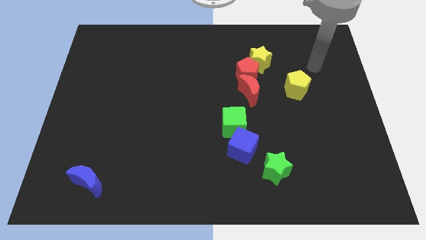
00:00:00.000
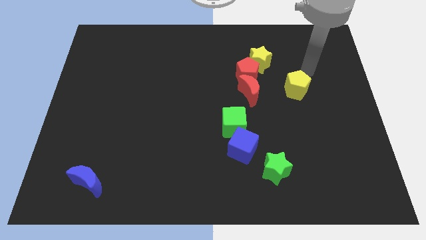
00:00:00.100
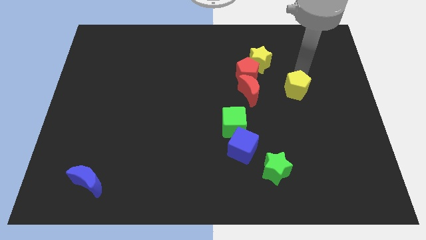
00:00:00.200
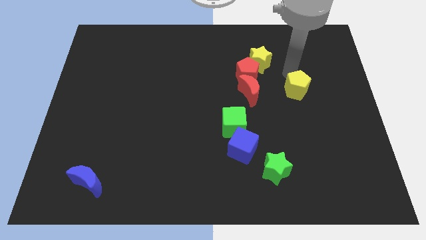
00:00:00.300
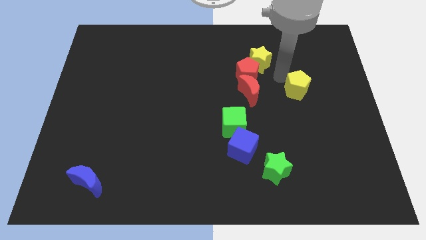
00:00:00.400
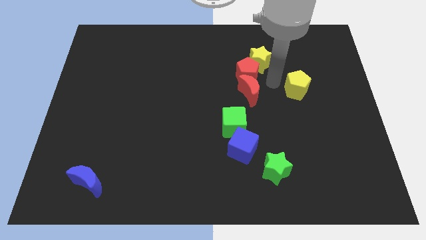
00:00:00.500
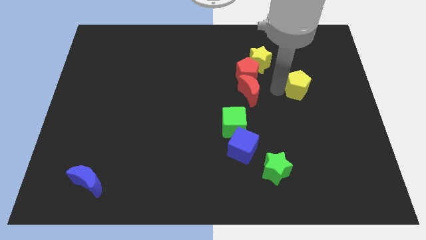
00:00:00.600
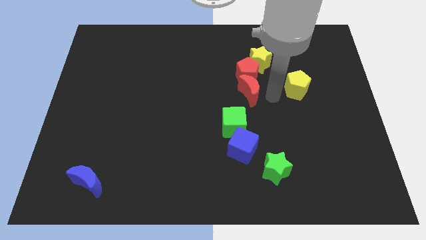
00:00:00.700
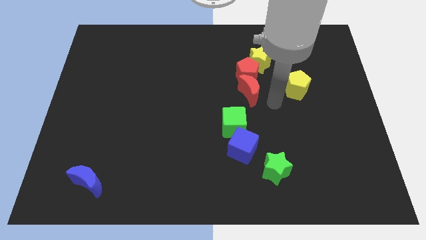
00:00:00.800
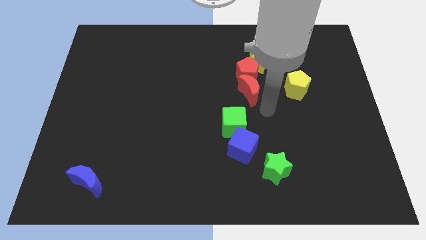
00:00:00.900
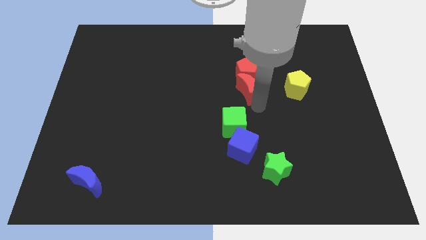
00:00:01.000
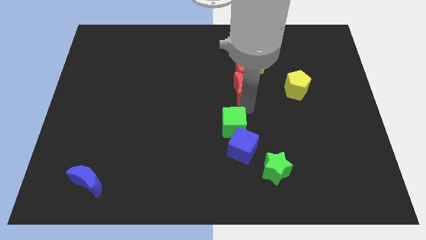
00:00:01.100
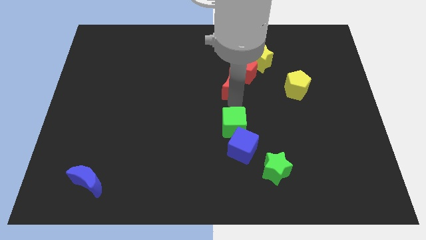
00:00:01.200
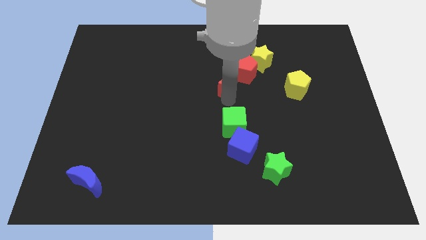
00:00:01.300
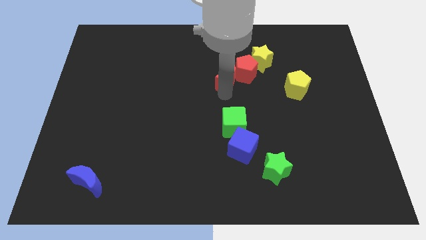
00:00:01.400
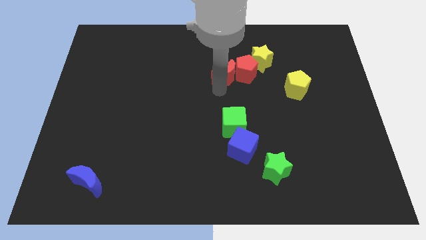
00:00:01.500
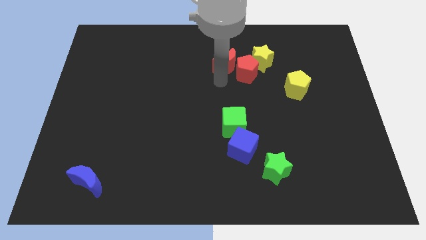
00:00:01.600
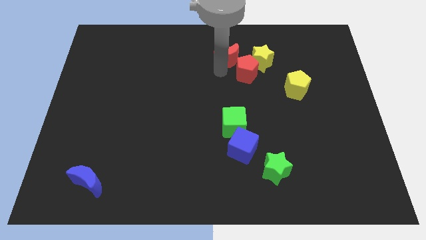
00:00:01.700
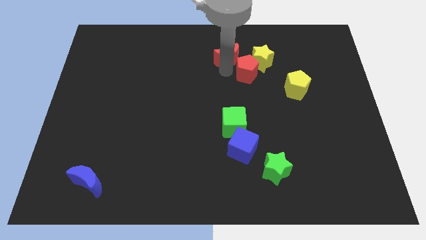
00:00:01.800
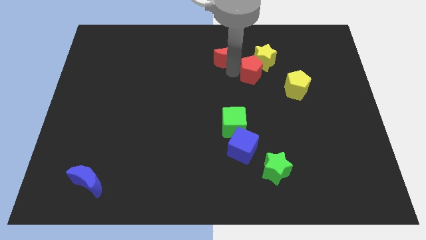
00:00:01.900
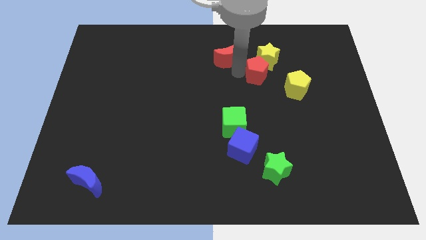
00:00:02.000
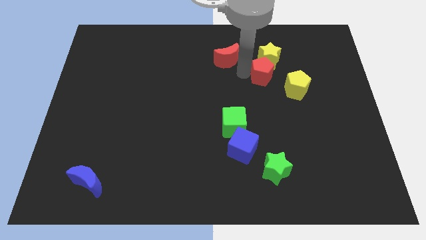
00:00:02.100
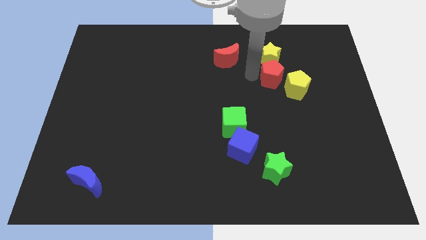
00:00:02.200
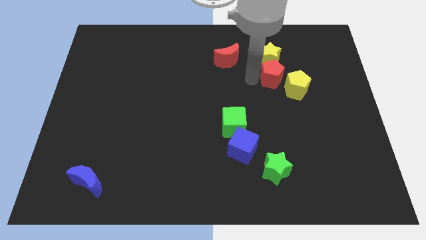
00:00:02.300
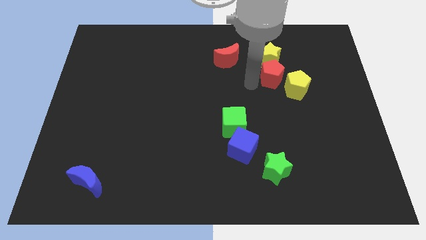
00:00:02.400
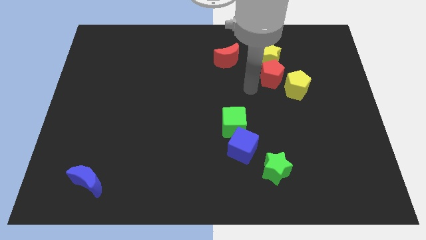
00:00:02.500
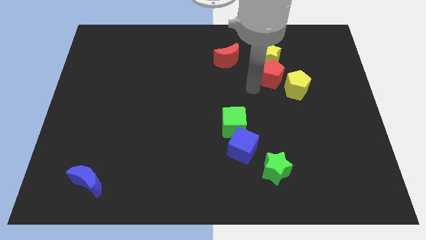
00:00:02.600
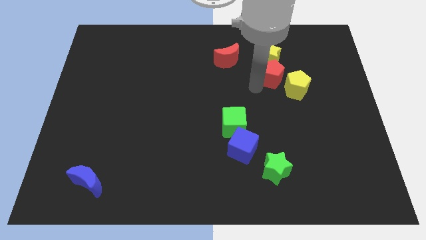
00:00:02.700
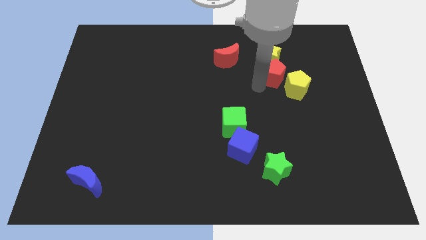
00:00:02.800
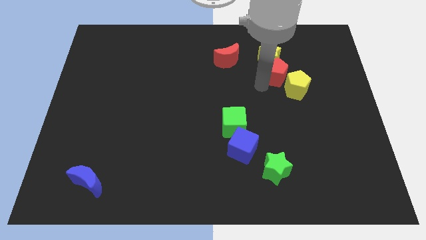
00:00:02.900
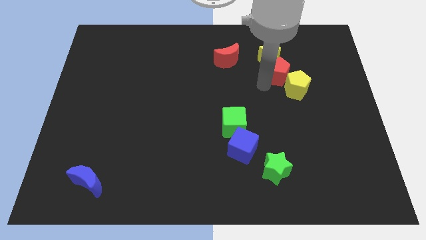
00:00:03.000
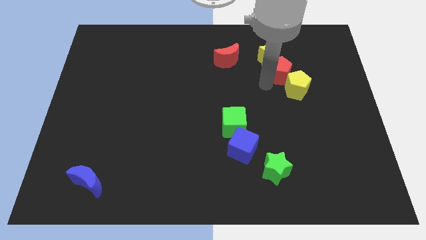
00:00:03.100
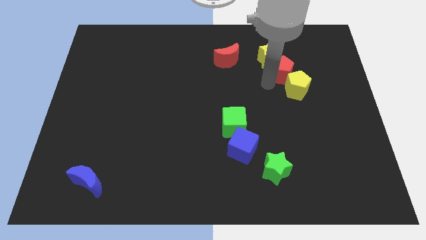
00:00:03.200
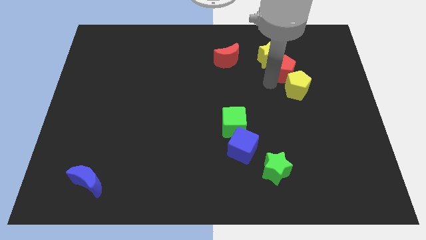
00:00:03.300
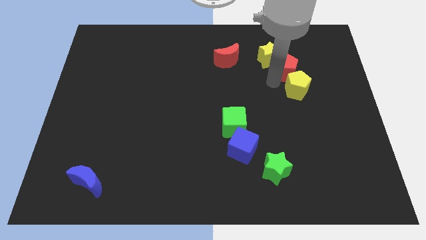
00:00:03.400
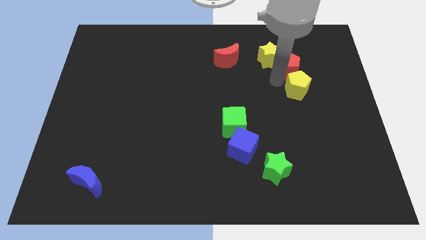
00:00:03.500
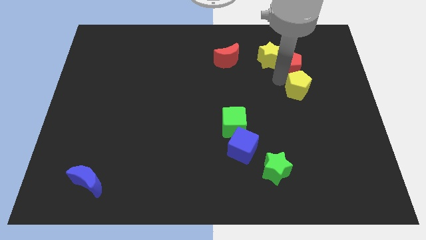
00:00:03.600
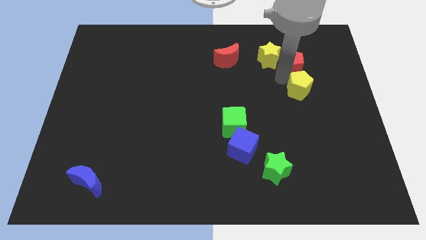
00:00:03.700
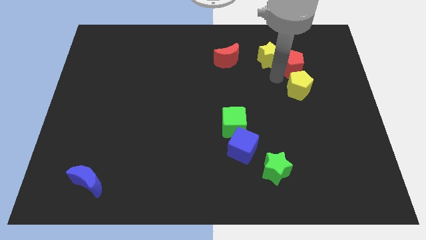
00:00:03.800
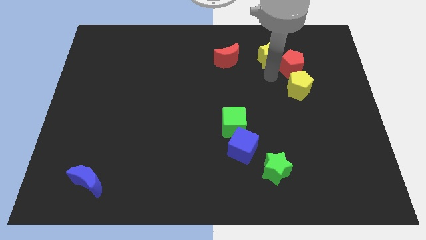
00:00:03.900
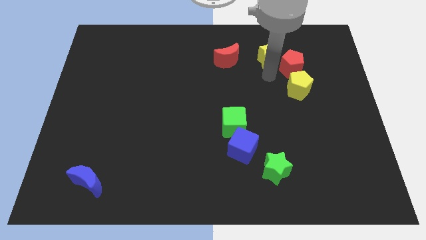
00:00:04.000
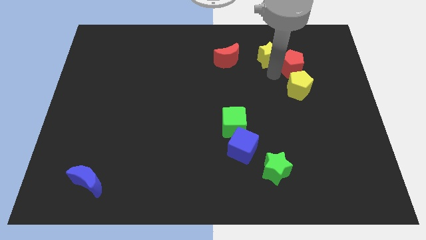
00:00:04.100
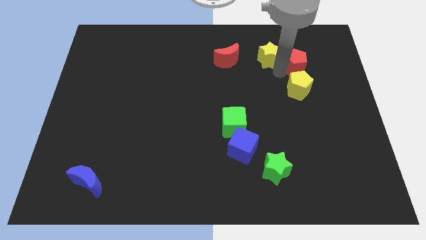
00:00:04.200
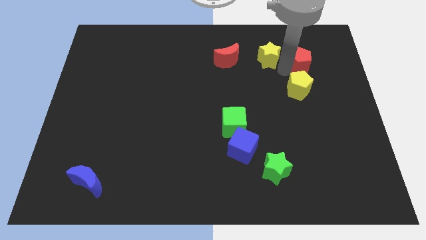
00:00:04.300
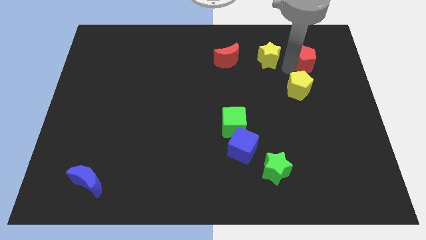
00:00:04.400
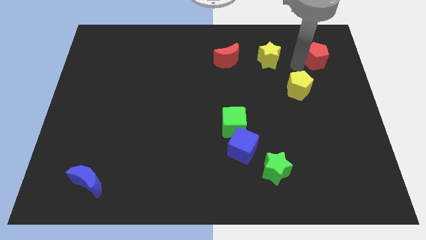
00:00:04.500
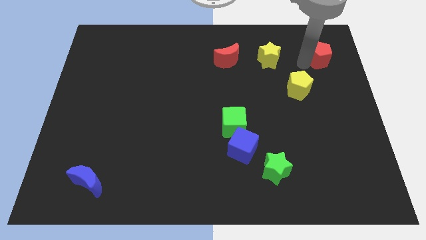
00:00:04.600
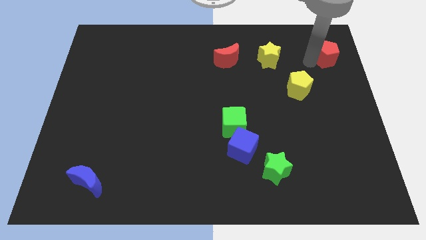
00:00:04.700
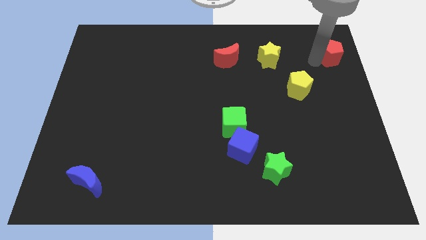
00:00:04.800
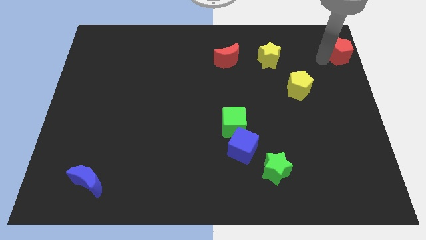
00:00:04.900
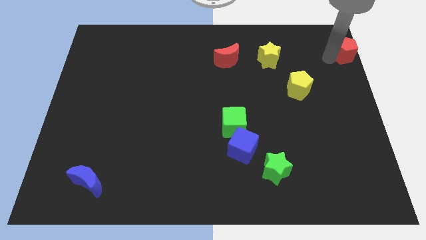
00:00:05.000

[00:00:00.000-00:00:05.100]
put the red pentagon to the top right

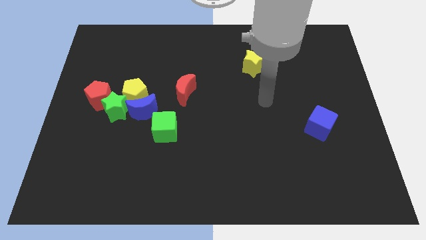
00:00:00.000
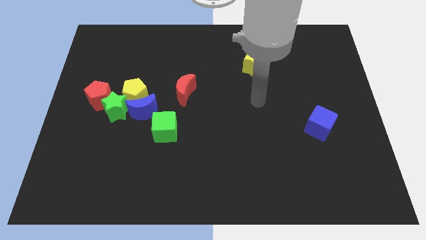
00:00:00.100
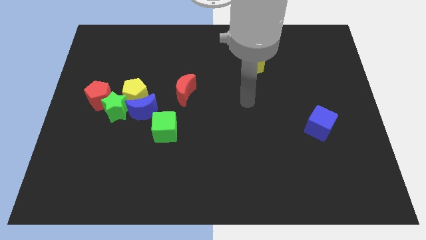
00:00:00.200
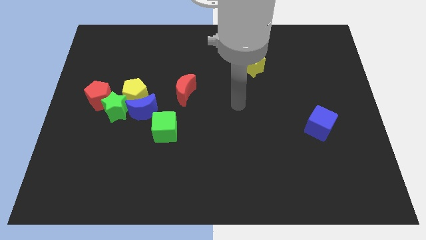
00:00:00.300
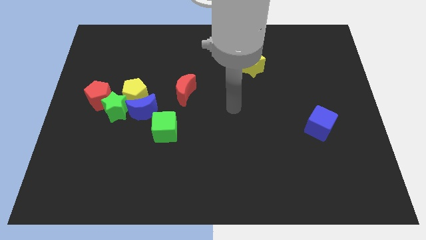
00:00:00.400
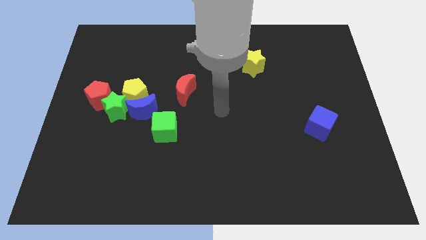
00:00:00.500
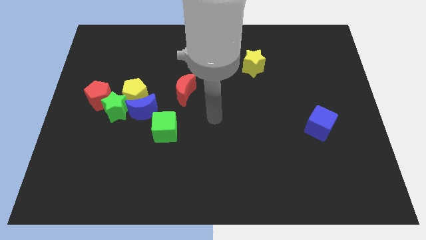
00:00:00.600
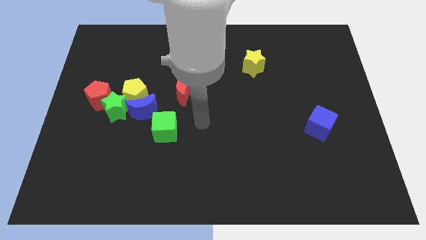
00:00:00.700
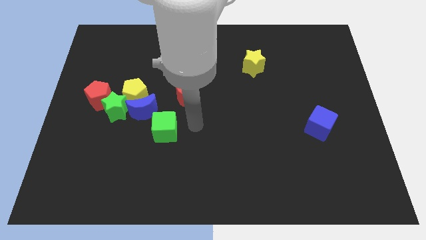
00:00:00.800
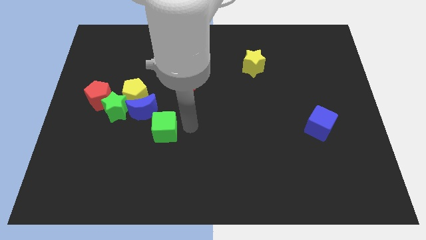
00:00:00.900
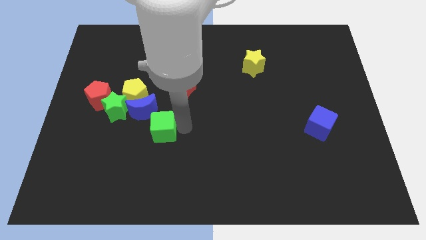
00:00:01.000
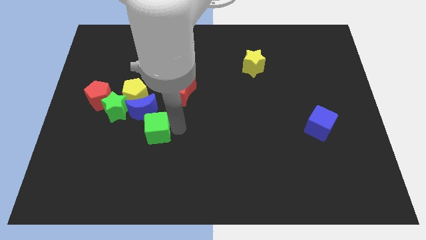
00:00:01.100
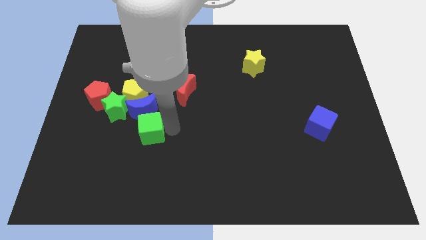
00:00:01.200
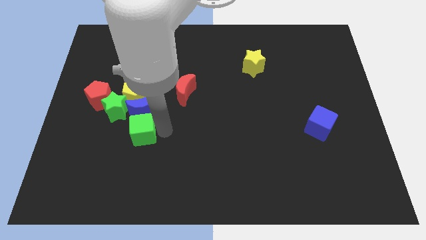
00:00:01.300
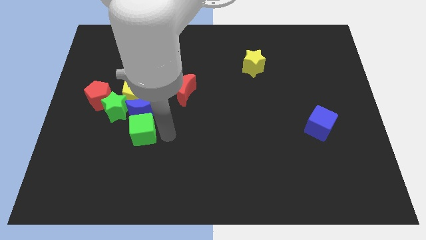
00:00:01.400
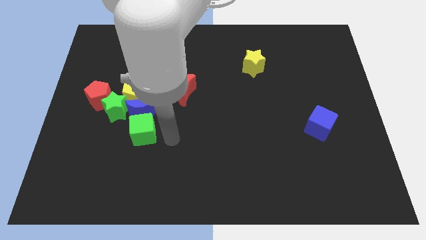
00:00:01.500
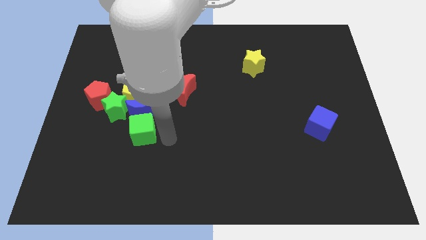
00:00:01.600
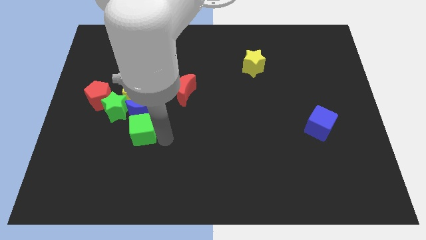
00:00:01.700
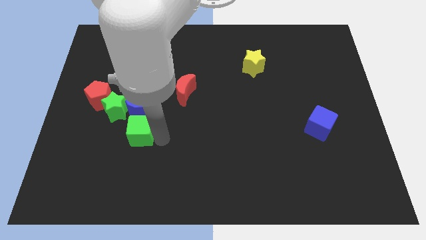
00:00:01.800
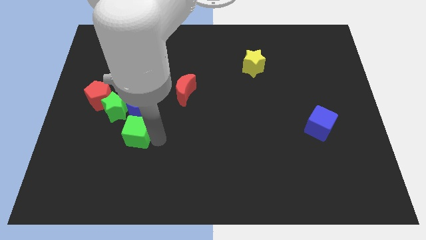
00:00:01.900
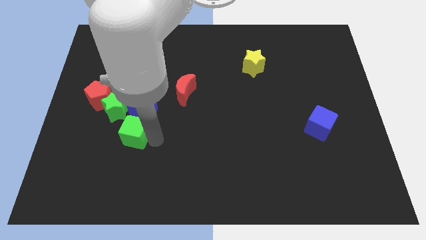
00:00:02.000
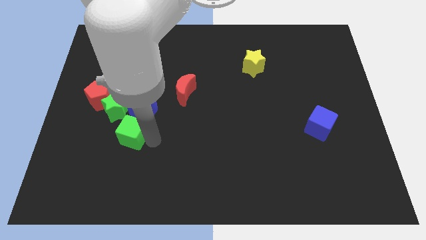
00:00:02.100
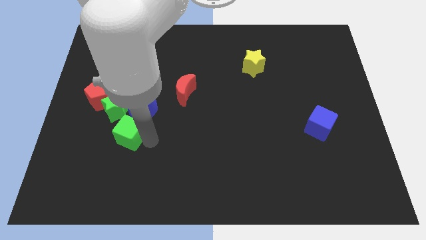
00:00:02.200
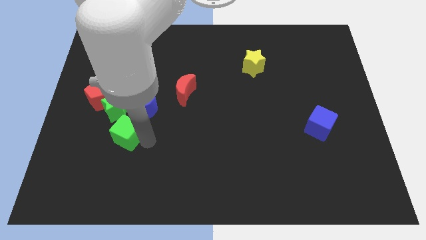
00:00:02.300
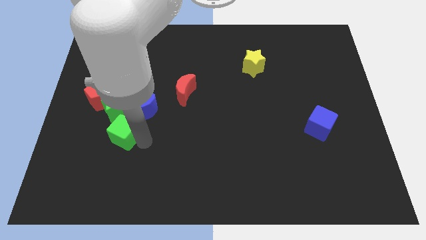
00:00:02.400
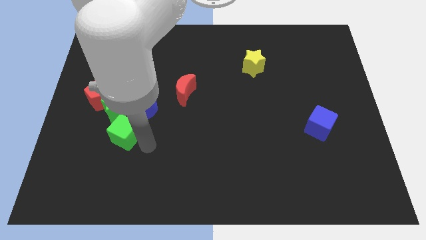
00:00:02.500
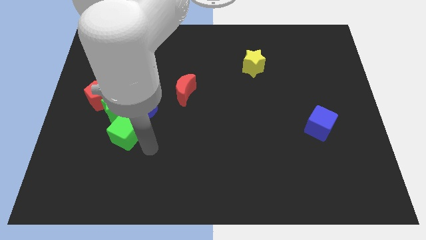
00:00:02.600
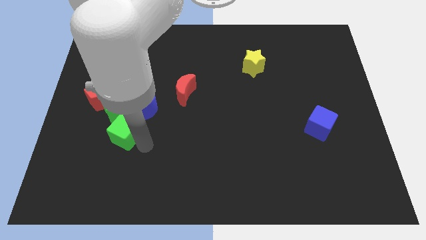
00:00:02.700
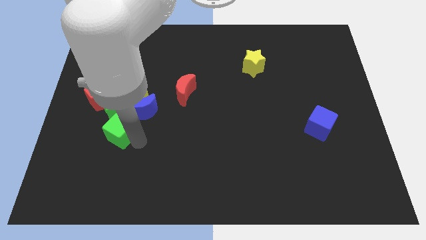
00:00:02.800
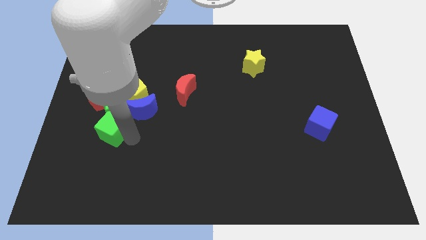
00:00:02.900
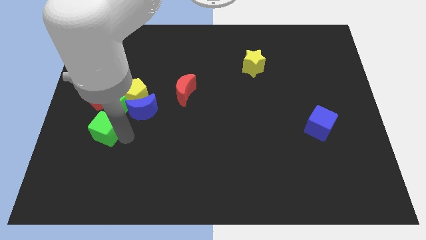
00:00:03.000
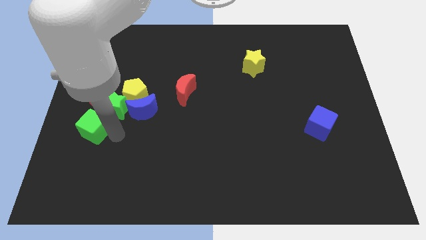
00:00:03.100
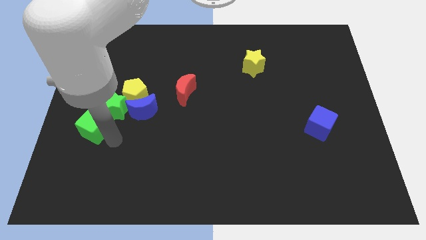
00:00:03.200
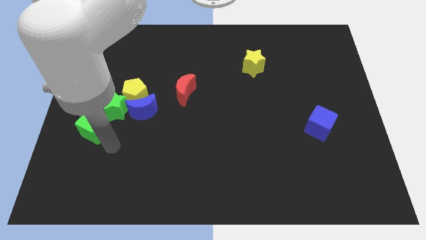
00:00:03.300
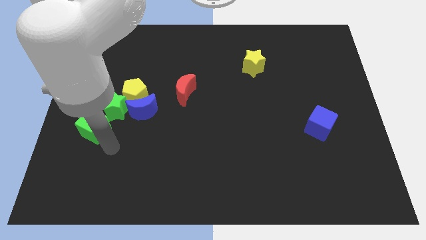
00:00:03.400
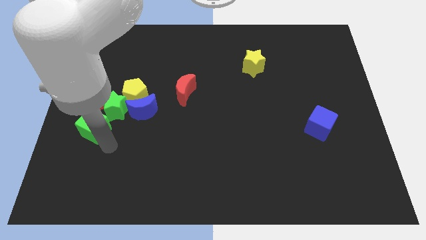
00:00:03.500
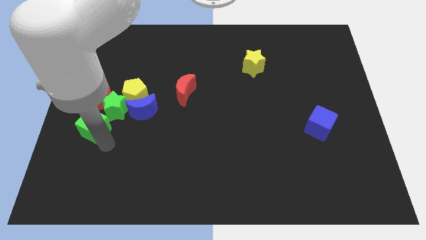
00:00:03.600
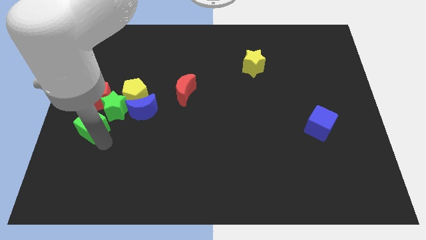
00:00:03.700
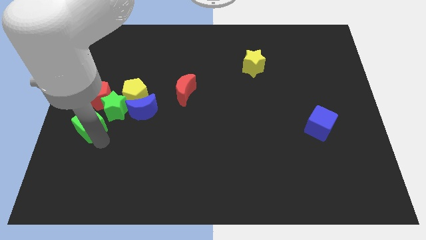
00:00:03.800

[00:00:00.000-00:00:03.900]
put the green cube to the center left
